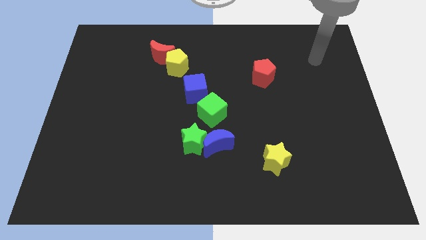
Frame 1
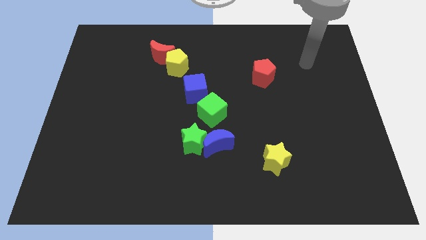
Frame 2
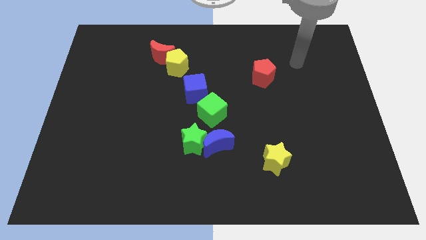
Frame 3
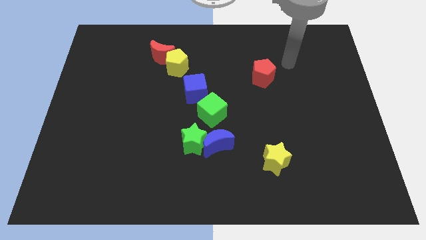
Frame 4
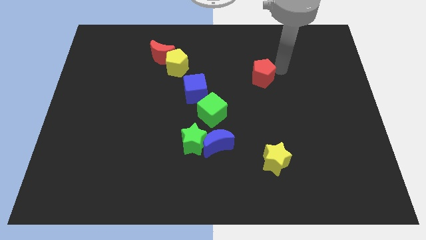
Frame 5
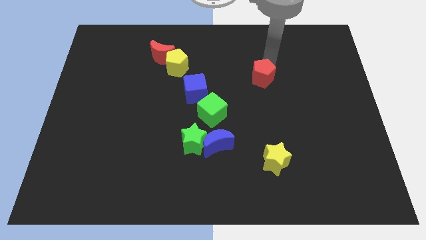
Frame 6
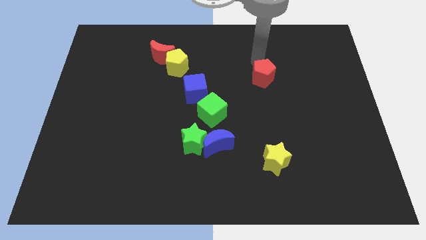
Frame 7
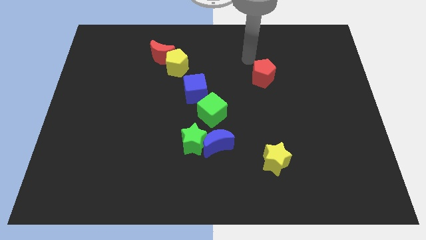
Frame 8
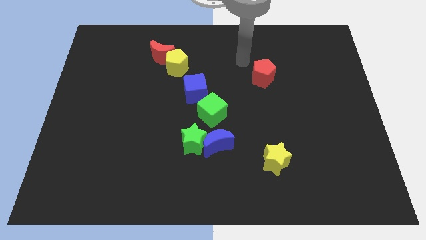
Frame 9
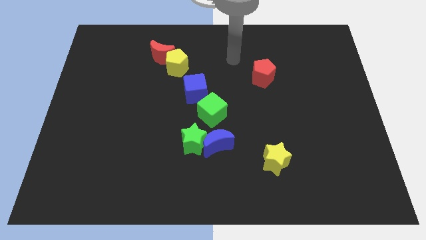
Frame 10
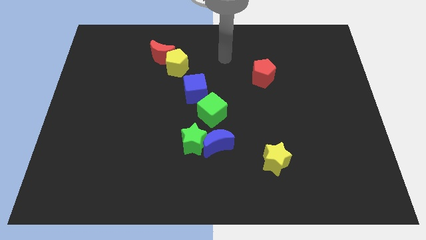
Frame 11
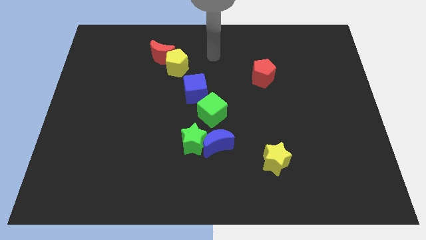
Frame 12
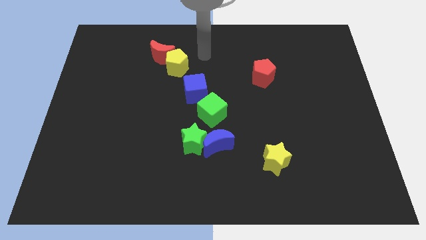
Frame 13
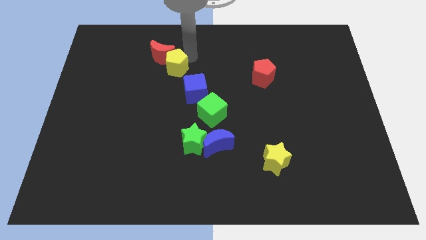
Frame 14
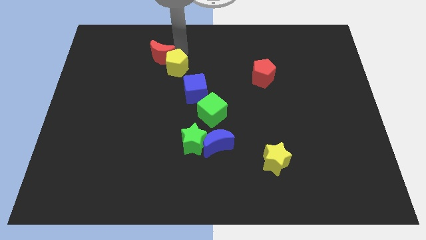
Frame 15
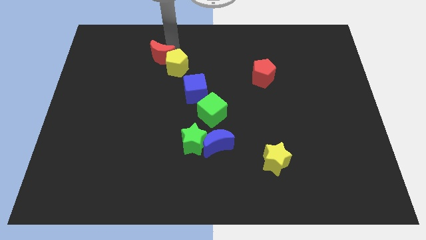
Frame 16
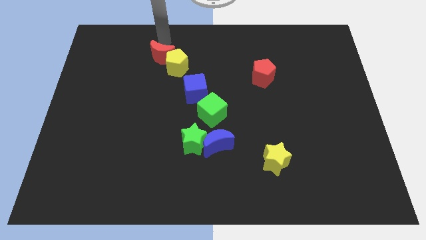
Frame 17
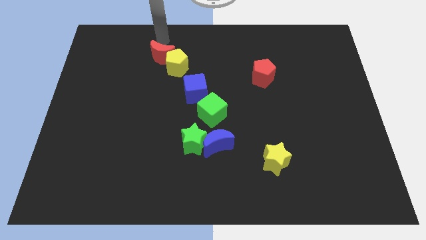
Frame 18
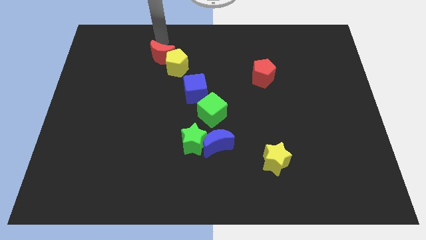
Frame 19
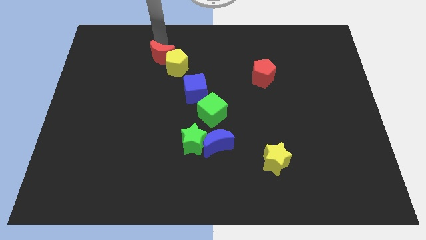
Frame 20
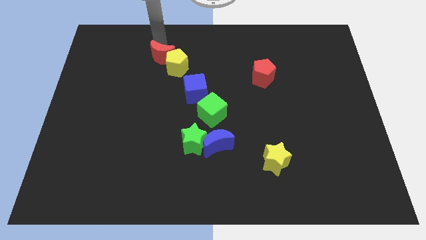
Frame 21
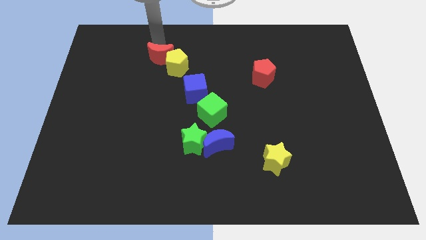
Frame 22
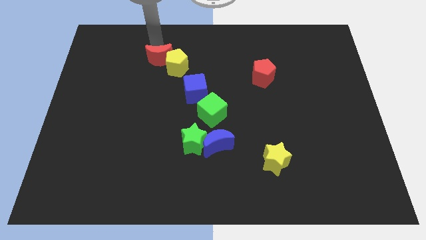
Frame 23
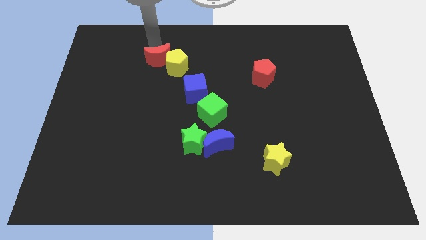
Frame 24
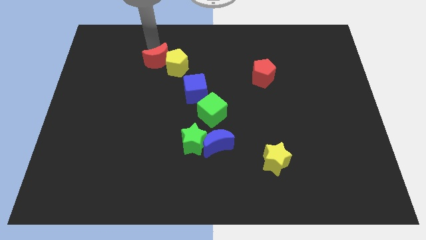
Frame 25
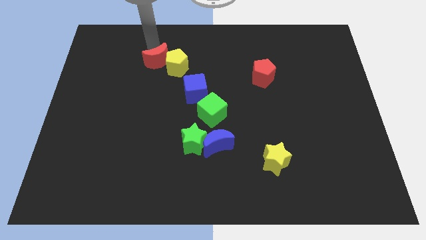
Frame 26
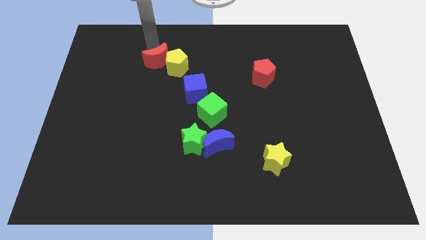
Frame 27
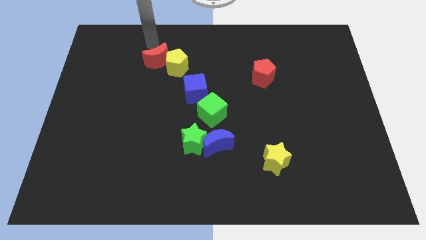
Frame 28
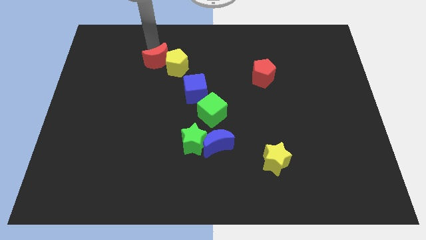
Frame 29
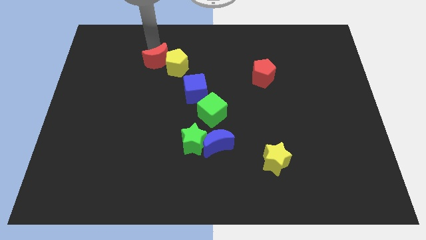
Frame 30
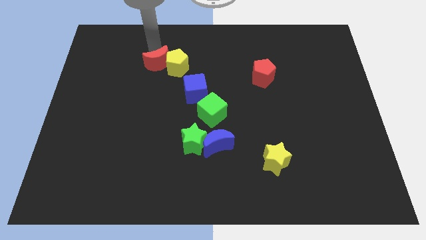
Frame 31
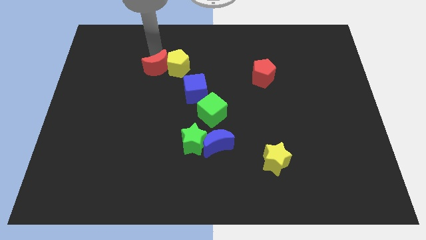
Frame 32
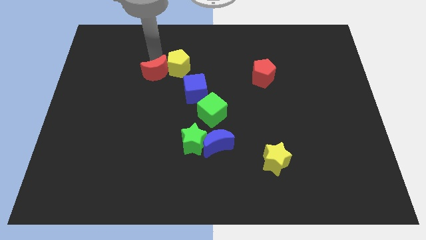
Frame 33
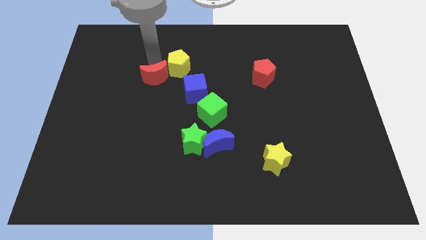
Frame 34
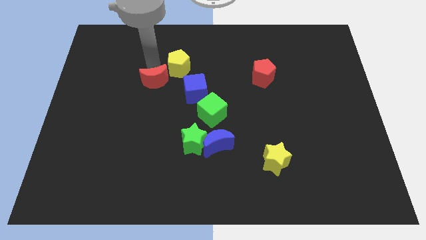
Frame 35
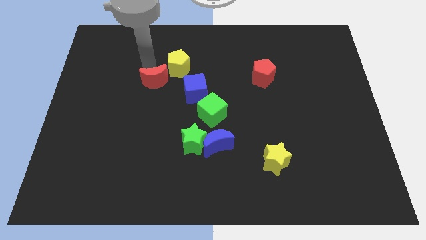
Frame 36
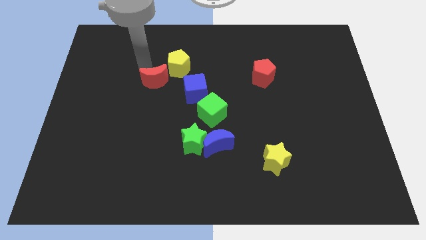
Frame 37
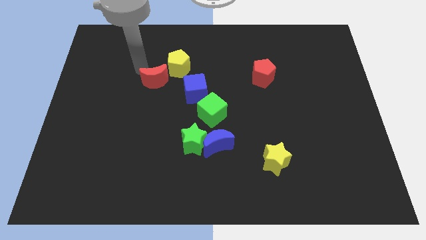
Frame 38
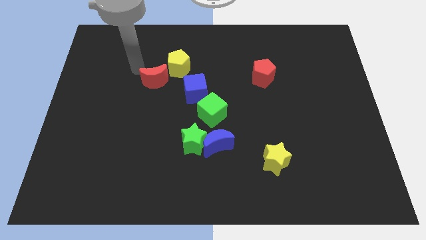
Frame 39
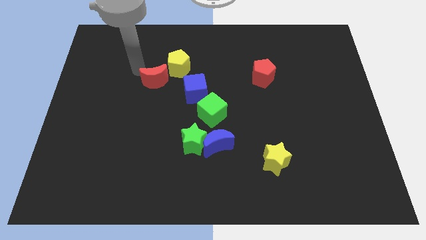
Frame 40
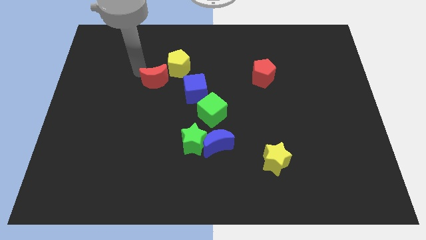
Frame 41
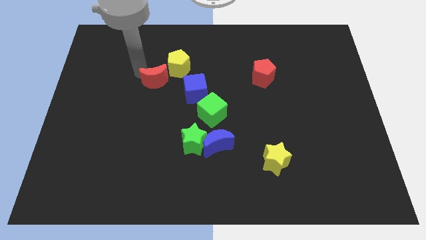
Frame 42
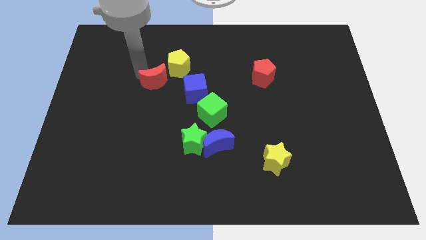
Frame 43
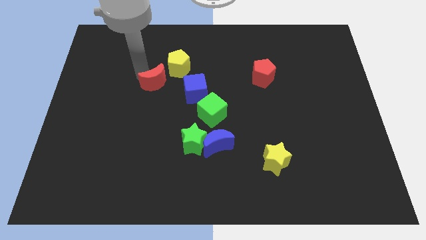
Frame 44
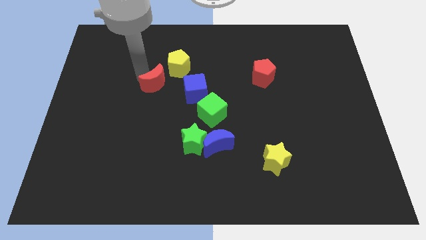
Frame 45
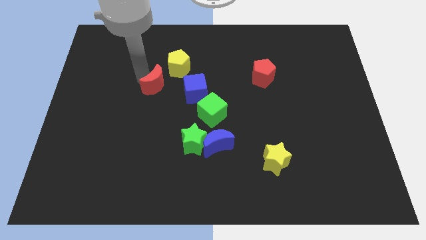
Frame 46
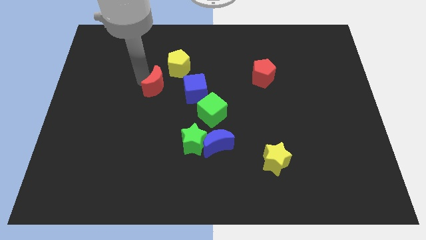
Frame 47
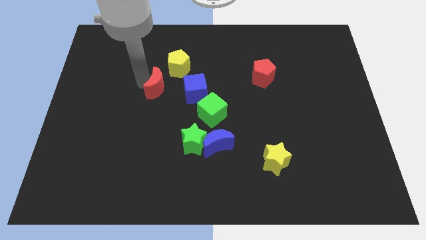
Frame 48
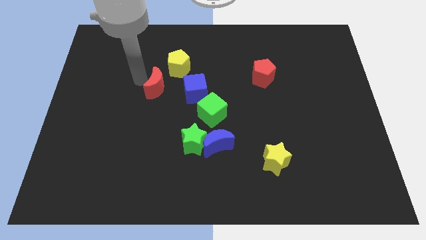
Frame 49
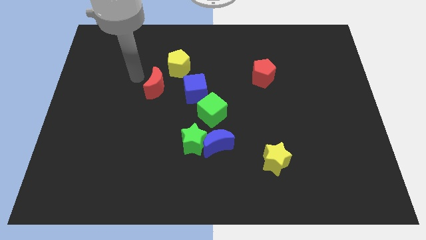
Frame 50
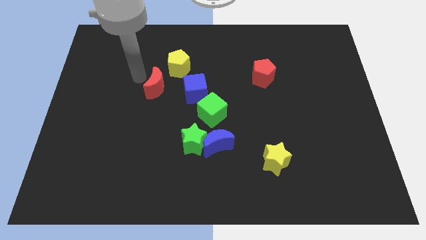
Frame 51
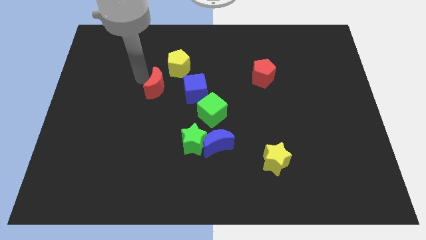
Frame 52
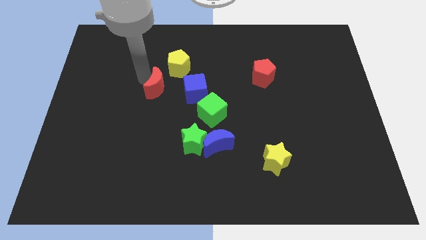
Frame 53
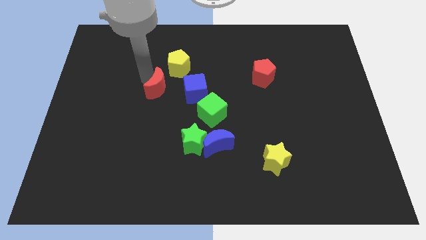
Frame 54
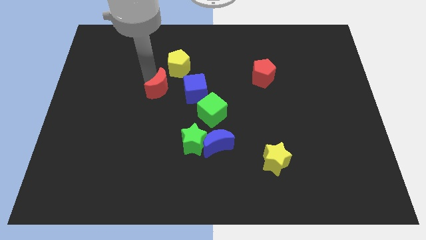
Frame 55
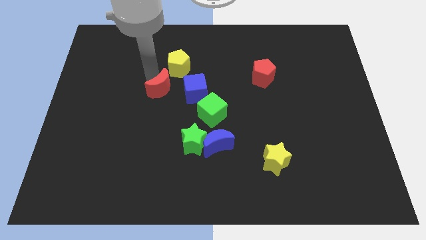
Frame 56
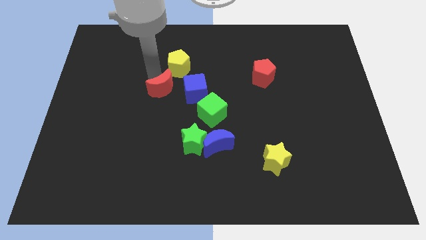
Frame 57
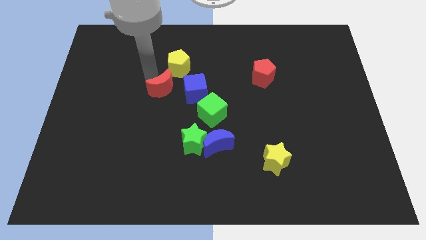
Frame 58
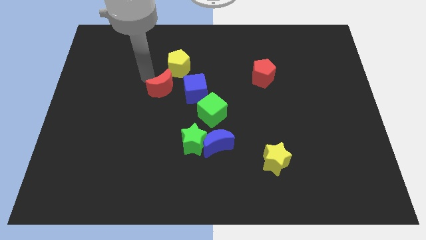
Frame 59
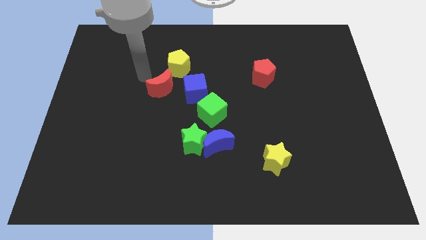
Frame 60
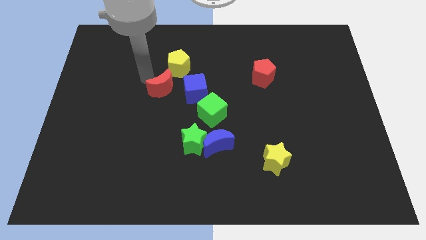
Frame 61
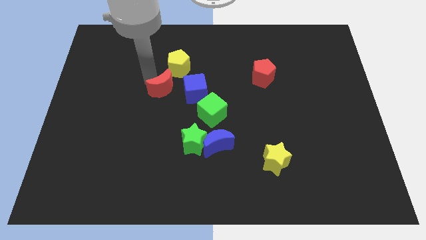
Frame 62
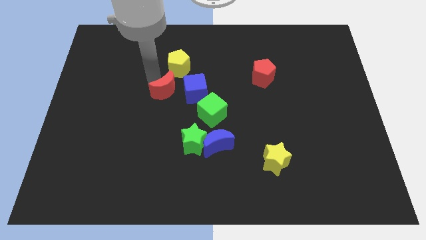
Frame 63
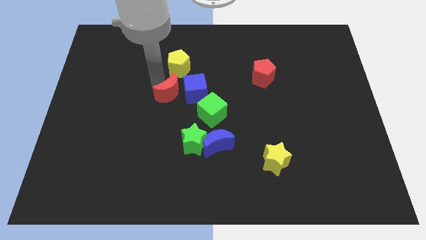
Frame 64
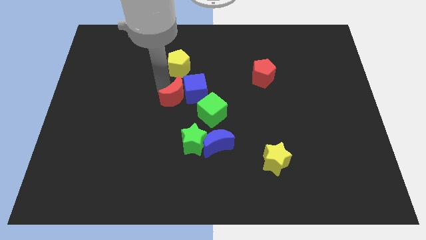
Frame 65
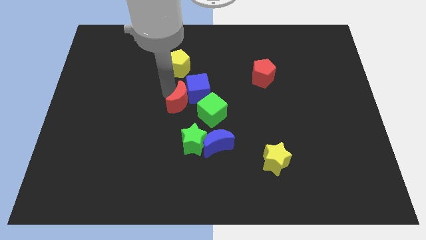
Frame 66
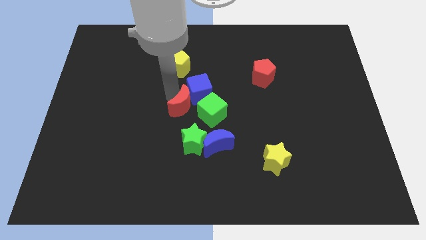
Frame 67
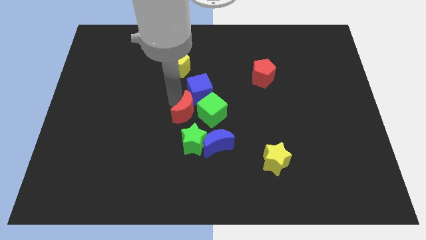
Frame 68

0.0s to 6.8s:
push the red moon towards the green cube

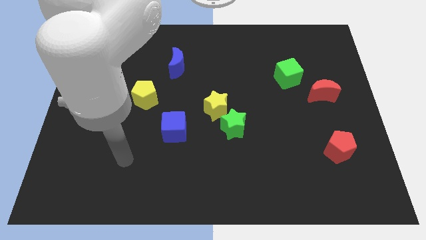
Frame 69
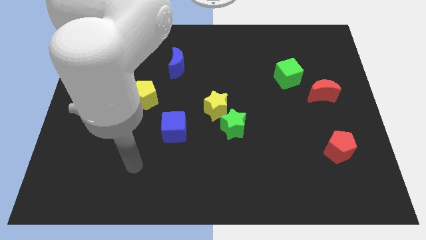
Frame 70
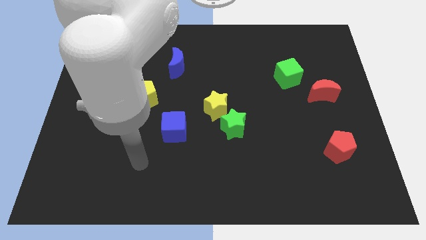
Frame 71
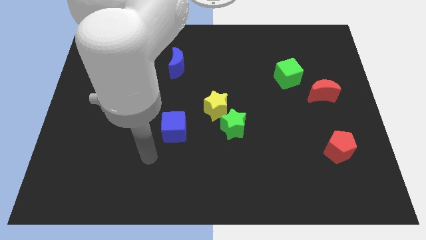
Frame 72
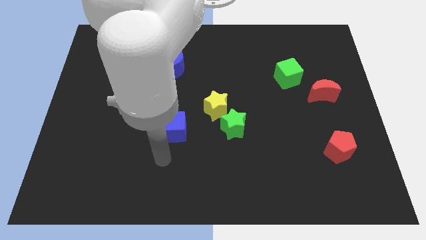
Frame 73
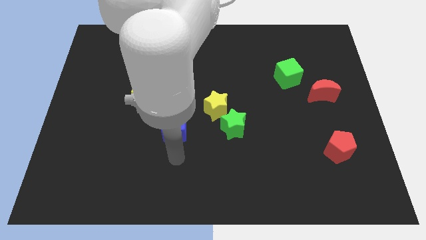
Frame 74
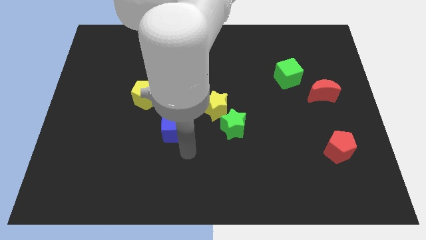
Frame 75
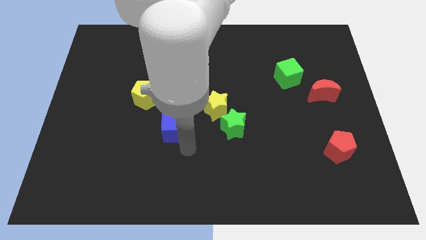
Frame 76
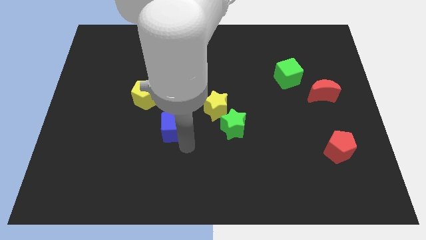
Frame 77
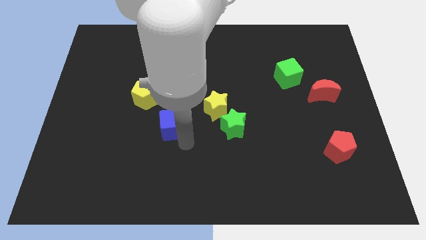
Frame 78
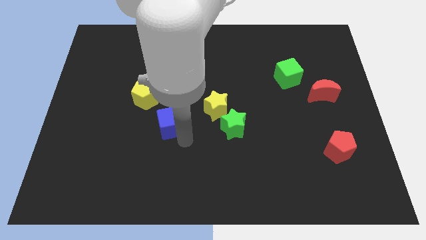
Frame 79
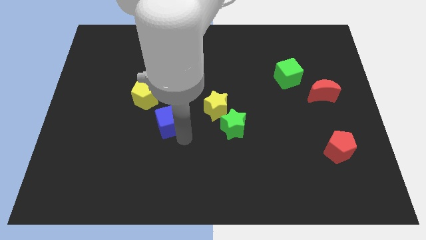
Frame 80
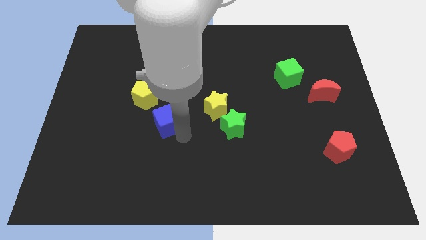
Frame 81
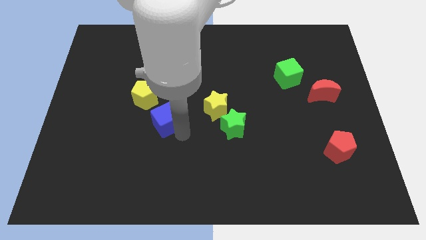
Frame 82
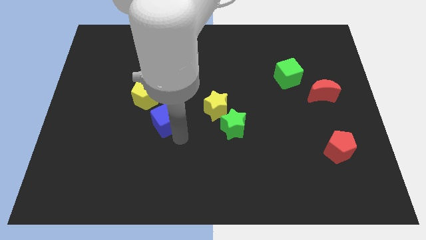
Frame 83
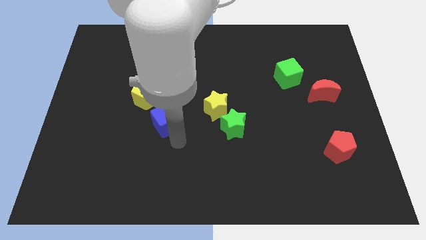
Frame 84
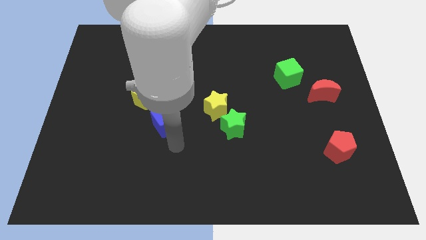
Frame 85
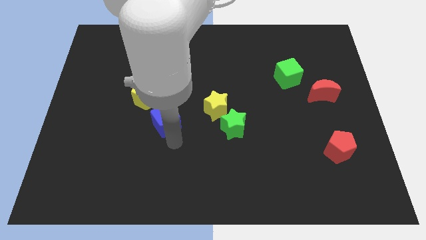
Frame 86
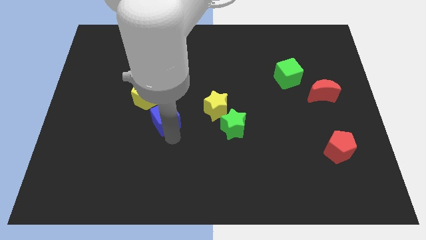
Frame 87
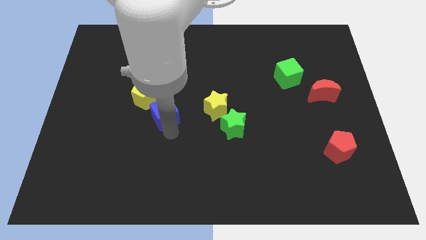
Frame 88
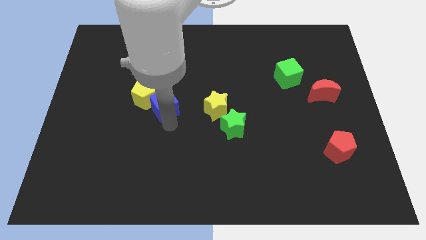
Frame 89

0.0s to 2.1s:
push the blue cube next to the yellow pentagon
